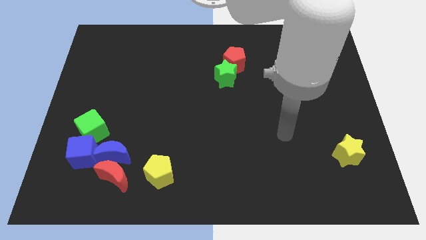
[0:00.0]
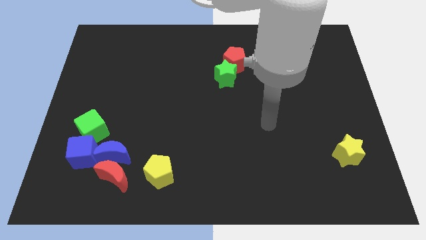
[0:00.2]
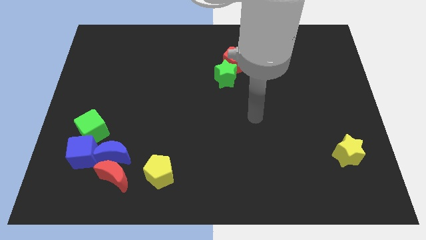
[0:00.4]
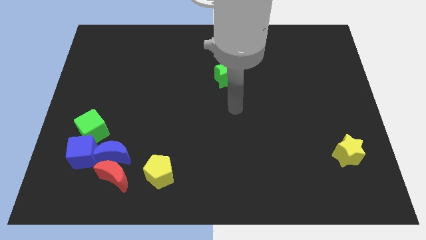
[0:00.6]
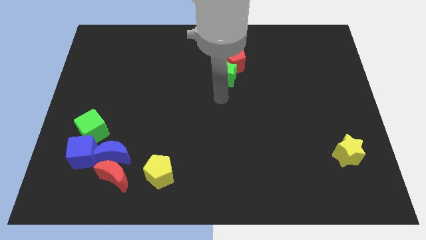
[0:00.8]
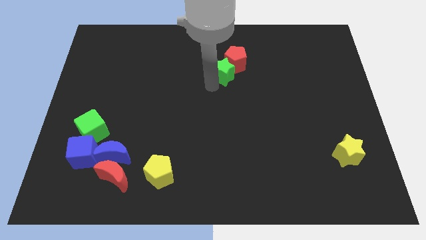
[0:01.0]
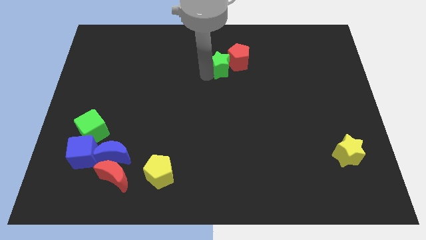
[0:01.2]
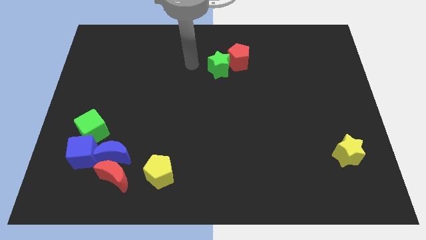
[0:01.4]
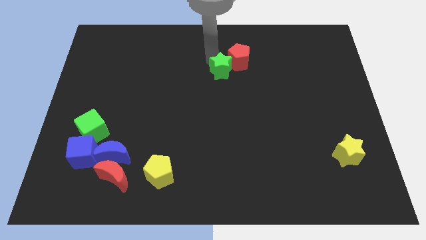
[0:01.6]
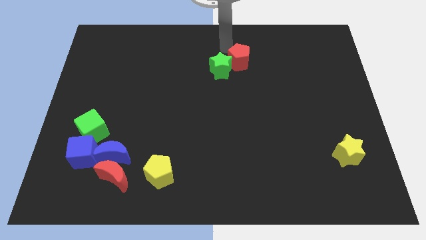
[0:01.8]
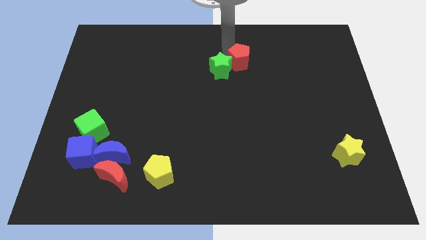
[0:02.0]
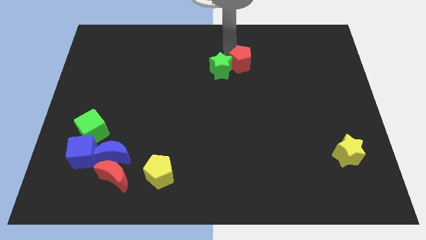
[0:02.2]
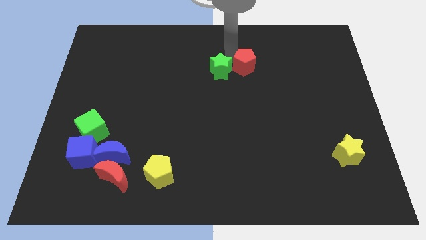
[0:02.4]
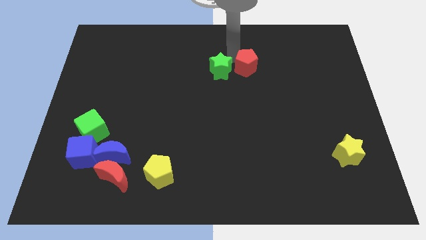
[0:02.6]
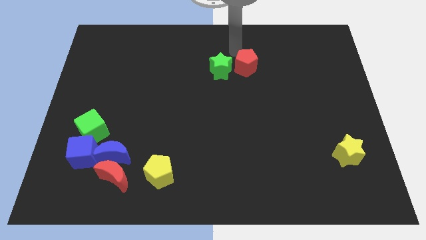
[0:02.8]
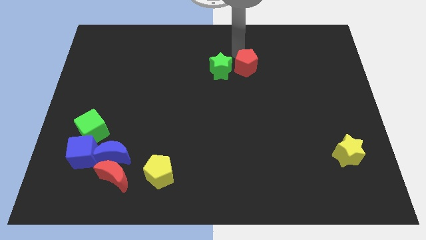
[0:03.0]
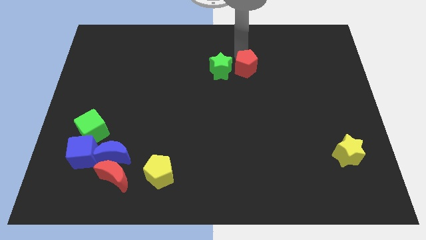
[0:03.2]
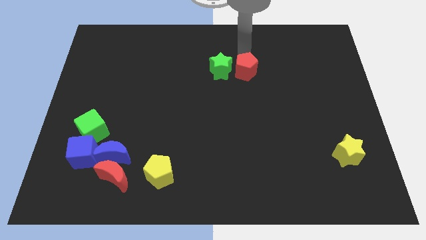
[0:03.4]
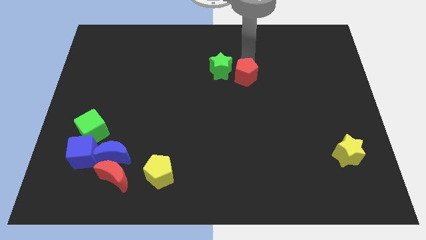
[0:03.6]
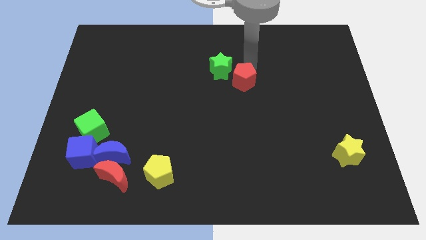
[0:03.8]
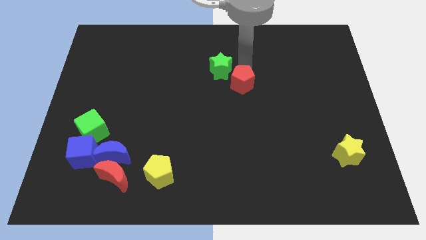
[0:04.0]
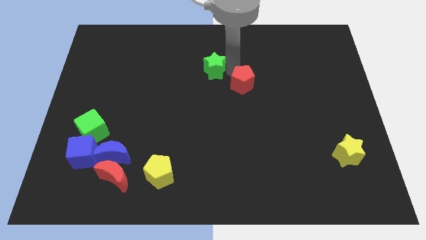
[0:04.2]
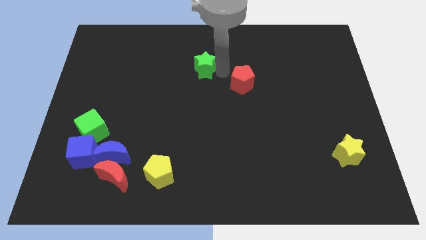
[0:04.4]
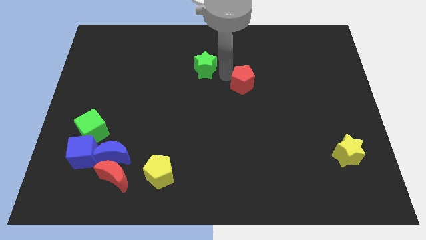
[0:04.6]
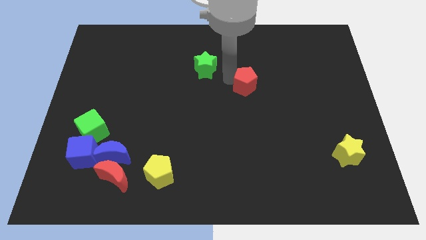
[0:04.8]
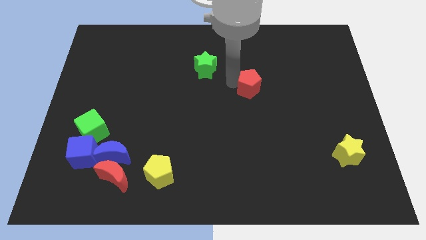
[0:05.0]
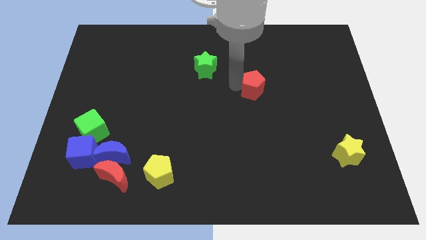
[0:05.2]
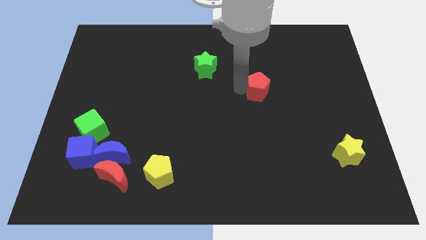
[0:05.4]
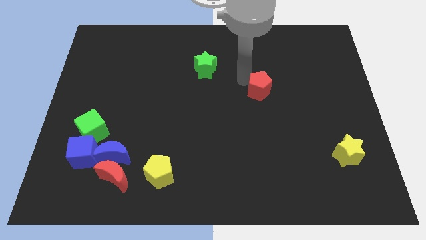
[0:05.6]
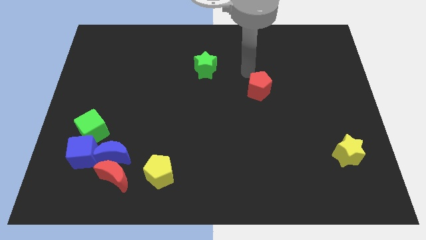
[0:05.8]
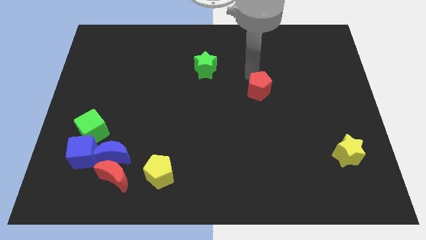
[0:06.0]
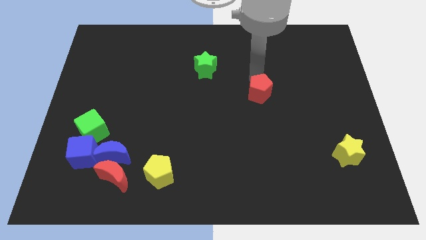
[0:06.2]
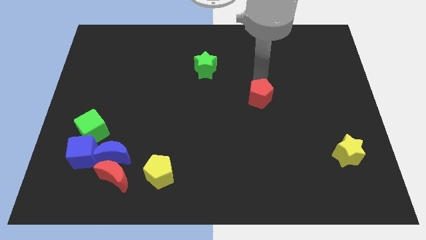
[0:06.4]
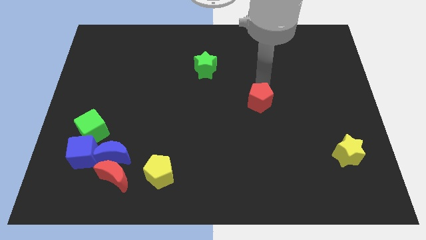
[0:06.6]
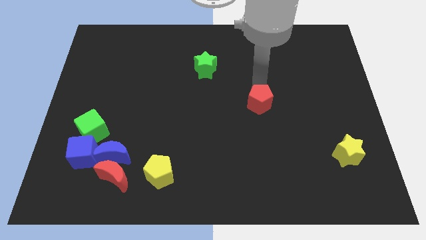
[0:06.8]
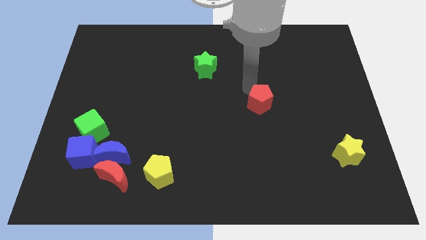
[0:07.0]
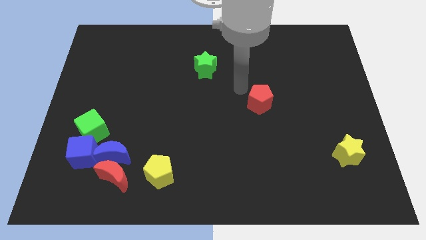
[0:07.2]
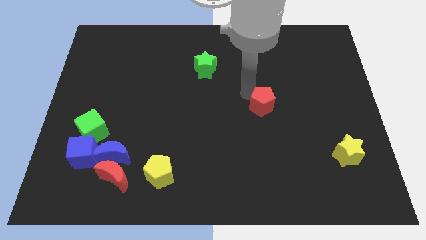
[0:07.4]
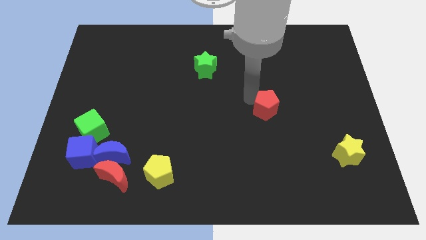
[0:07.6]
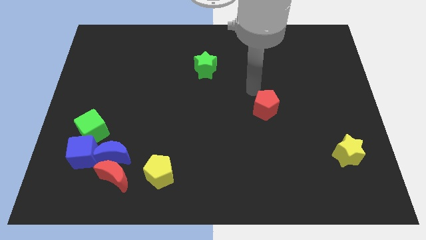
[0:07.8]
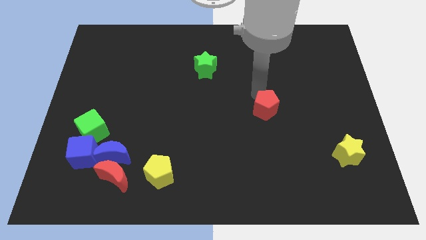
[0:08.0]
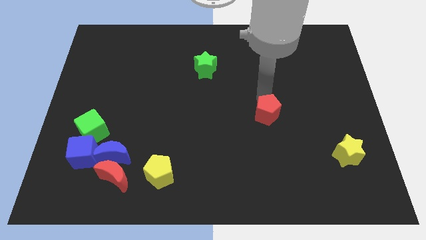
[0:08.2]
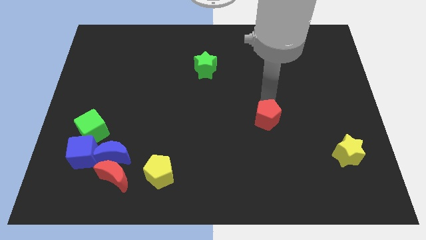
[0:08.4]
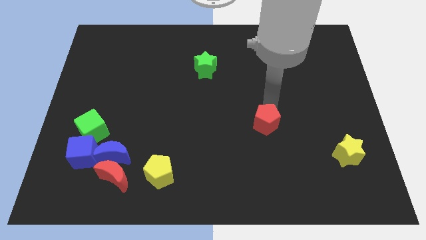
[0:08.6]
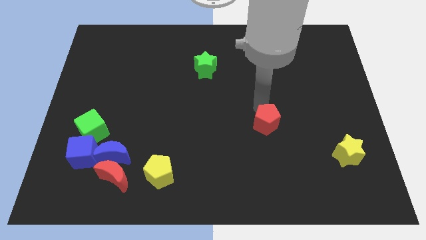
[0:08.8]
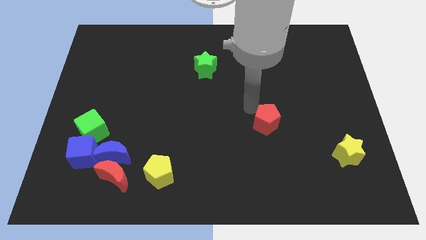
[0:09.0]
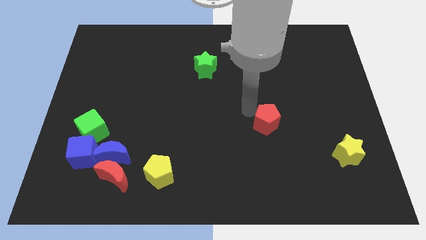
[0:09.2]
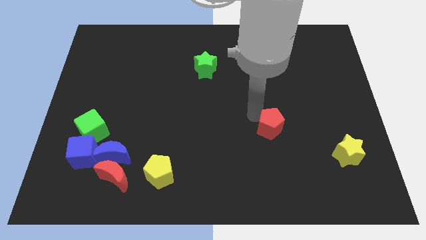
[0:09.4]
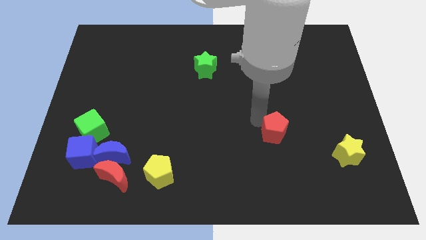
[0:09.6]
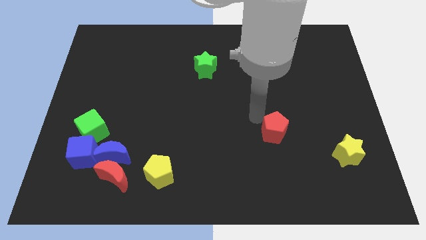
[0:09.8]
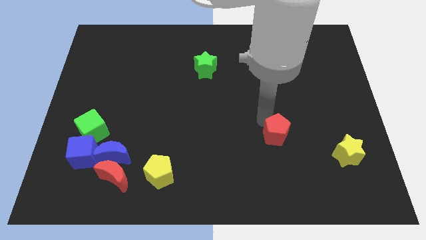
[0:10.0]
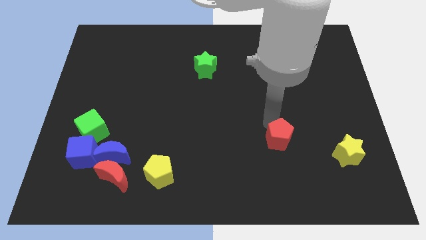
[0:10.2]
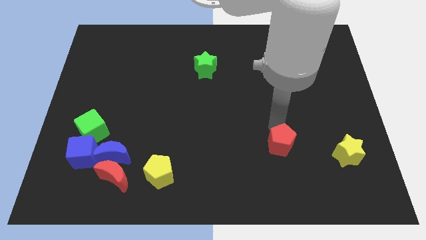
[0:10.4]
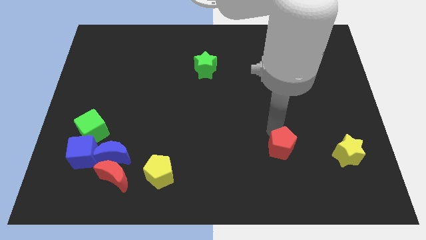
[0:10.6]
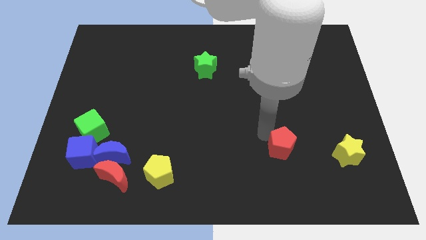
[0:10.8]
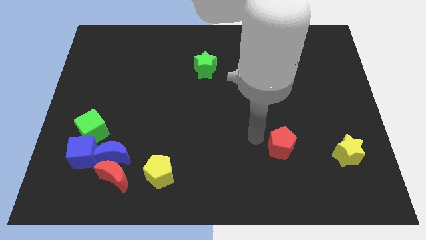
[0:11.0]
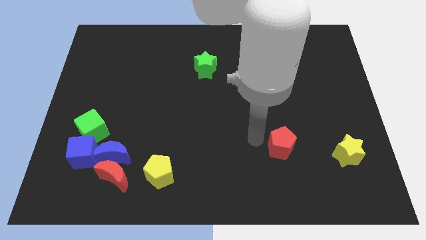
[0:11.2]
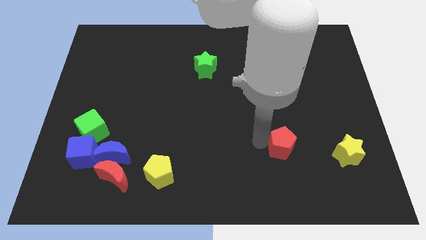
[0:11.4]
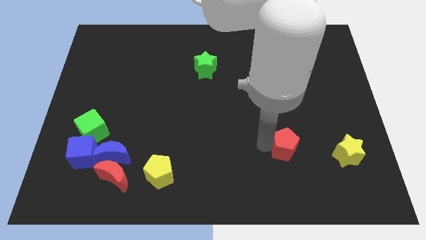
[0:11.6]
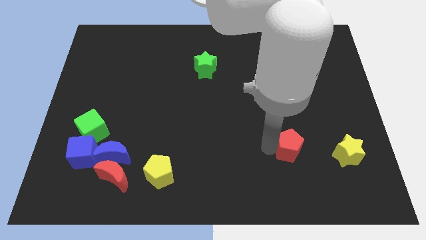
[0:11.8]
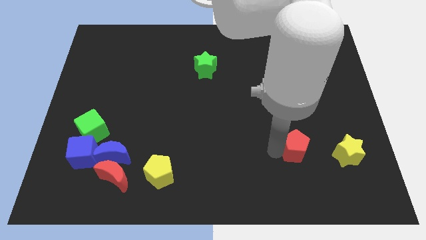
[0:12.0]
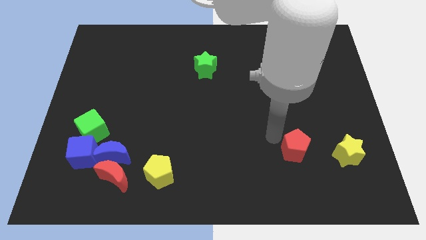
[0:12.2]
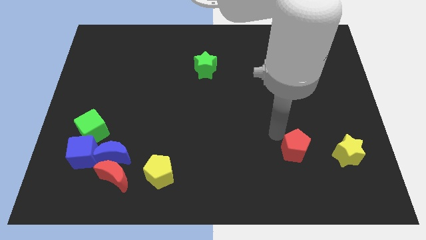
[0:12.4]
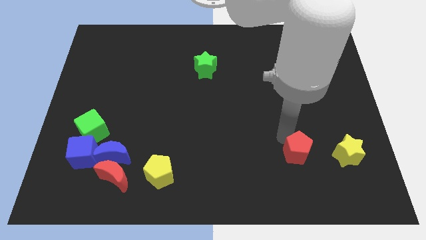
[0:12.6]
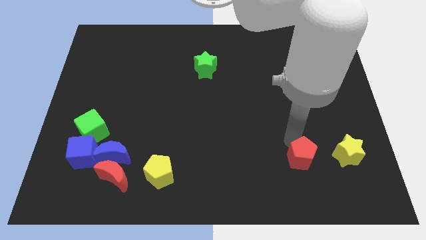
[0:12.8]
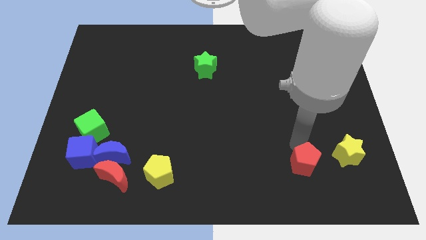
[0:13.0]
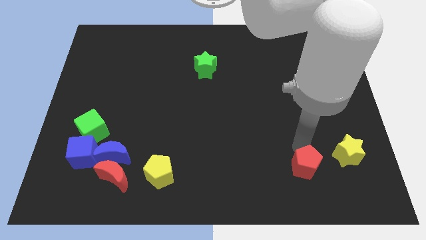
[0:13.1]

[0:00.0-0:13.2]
push the red pentagon to the bottom left of the yellow star

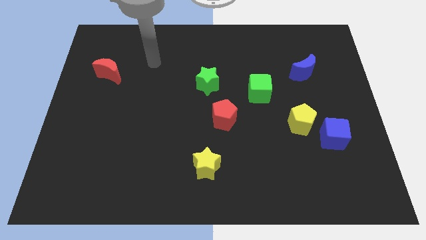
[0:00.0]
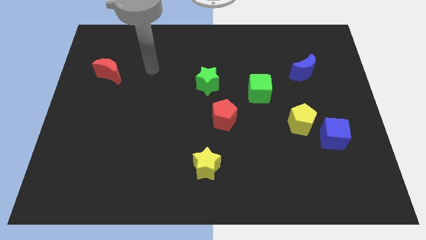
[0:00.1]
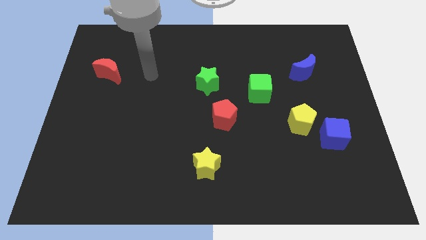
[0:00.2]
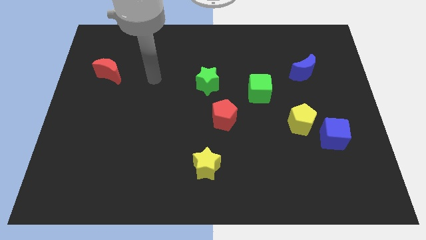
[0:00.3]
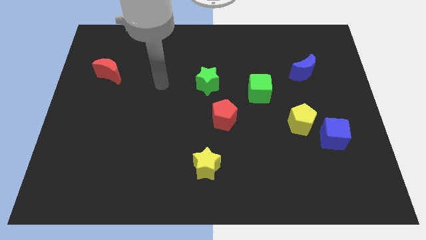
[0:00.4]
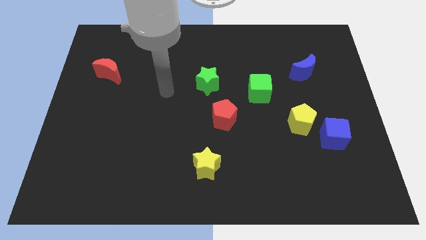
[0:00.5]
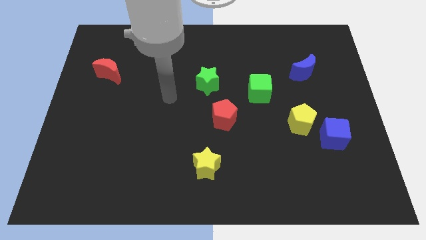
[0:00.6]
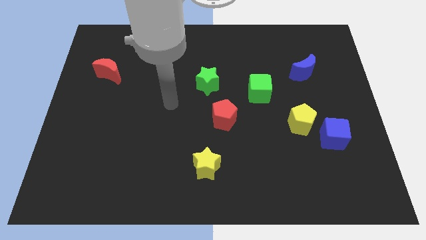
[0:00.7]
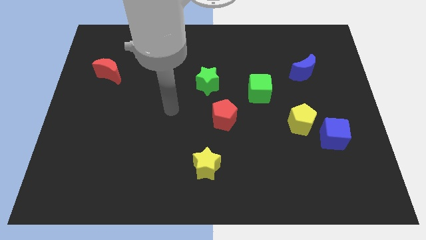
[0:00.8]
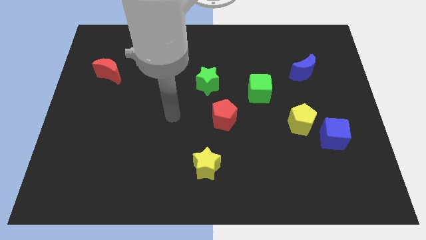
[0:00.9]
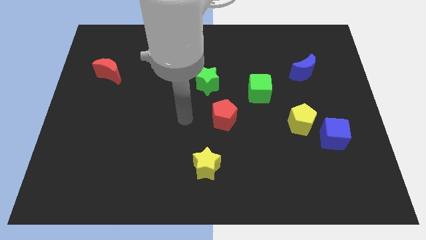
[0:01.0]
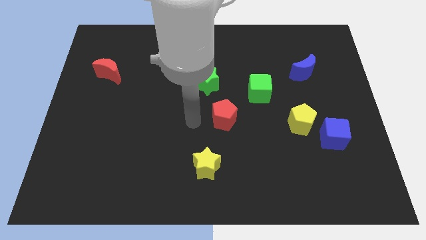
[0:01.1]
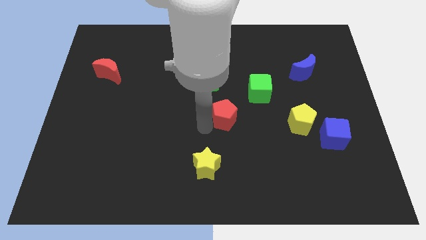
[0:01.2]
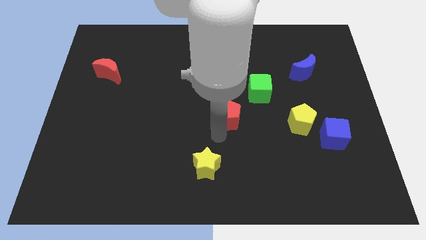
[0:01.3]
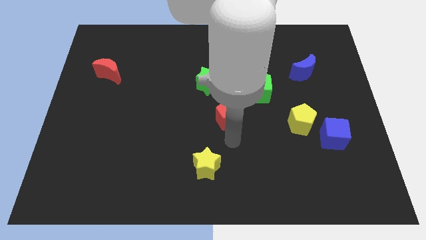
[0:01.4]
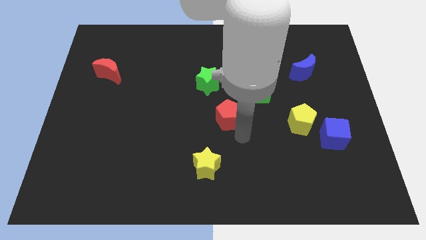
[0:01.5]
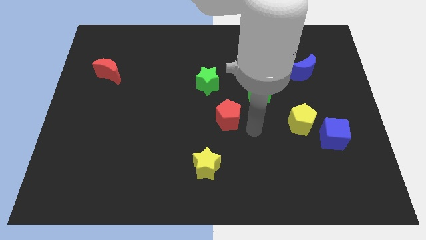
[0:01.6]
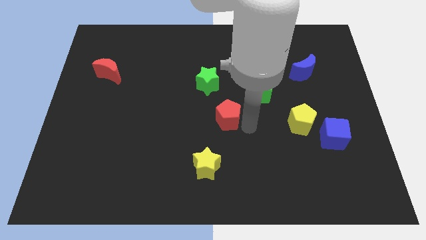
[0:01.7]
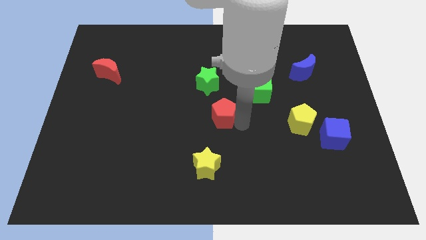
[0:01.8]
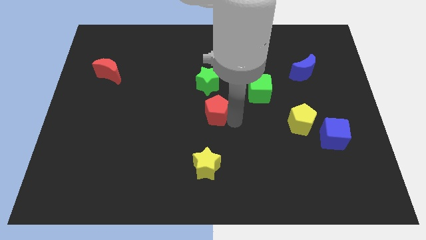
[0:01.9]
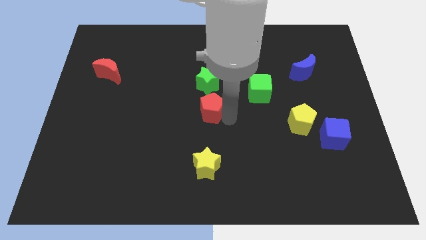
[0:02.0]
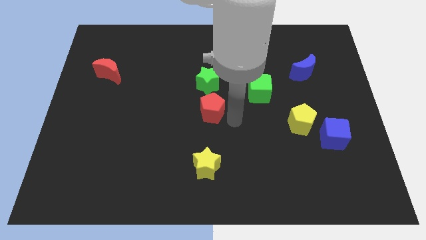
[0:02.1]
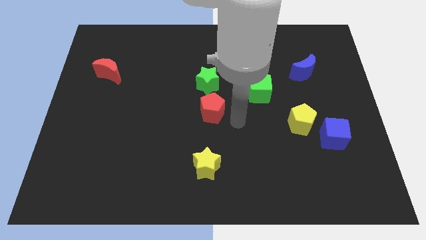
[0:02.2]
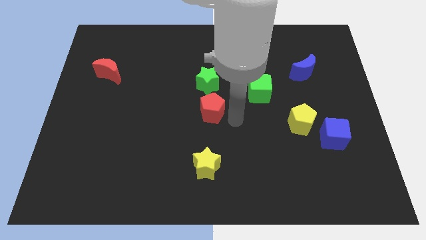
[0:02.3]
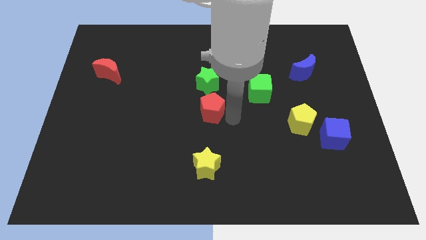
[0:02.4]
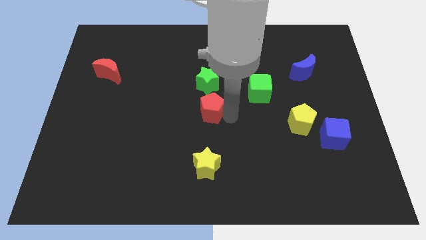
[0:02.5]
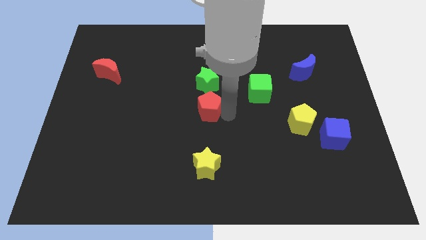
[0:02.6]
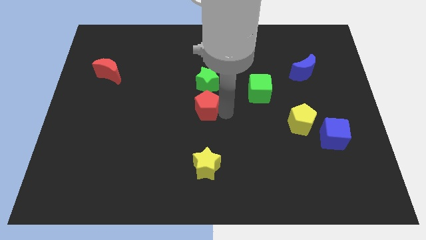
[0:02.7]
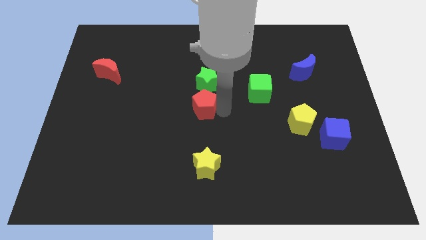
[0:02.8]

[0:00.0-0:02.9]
push the red pentagon diagonally down and to the left of the green star
